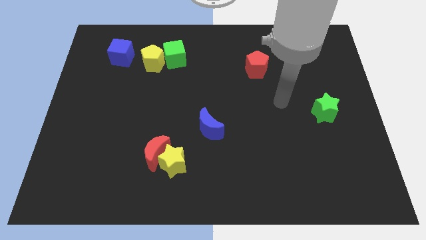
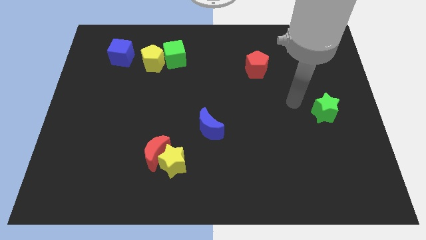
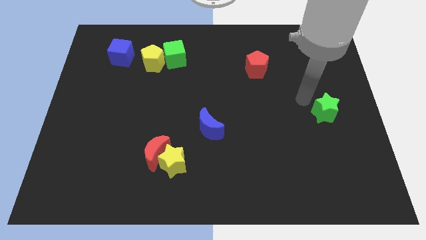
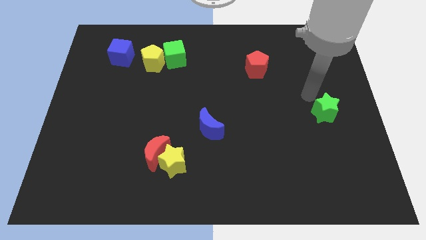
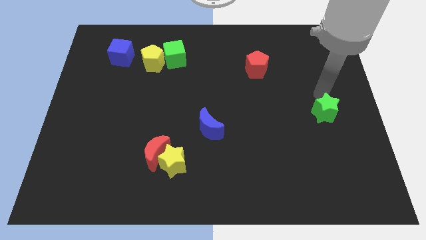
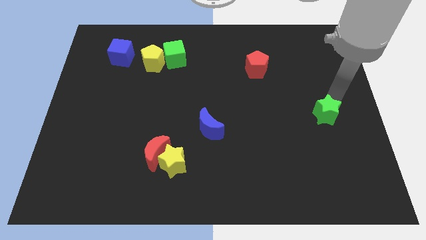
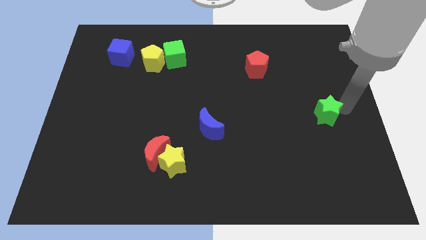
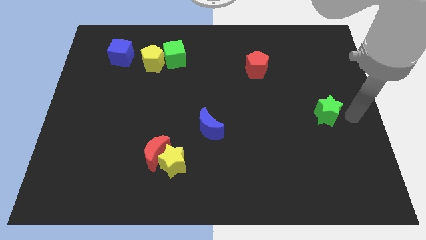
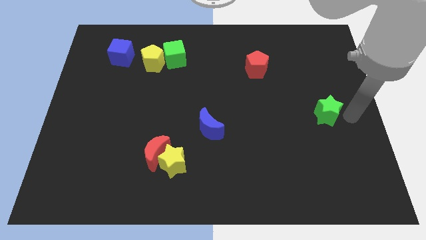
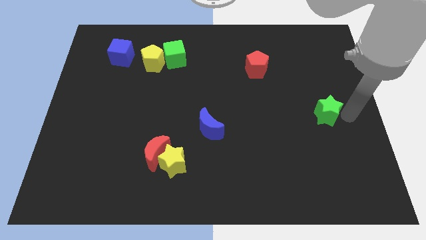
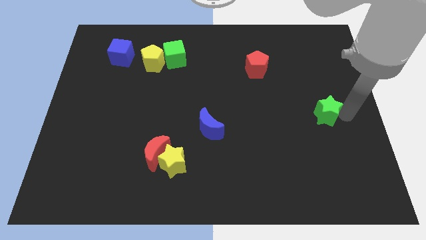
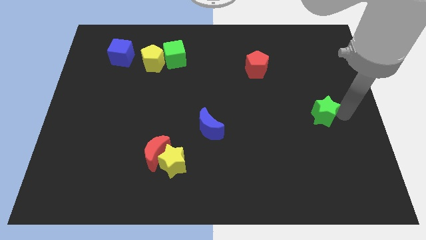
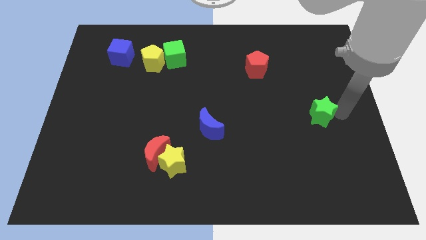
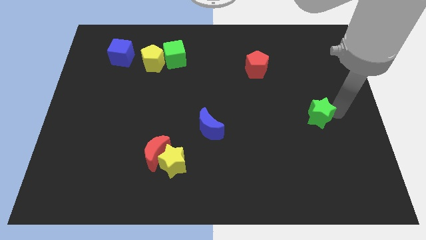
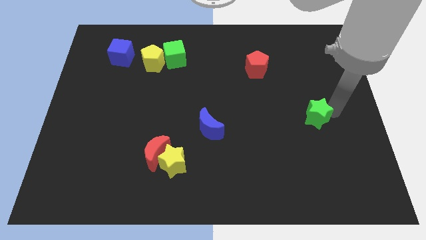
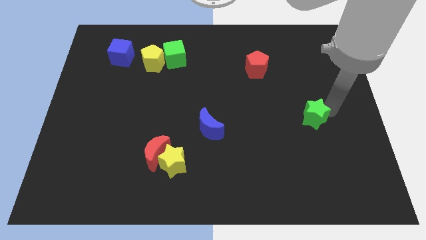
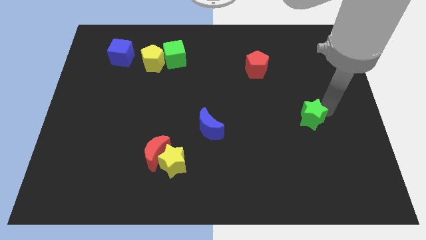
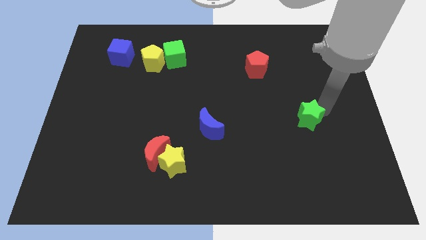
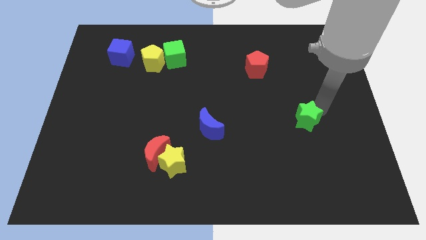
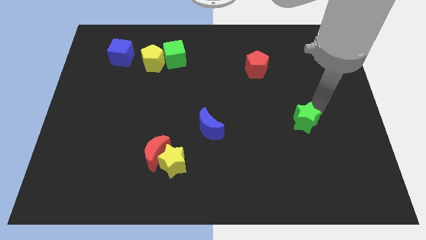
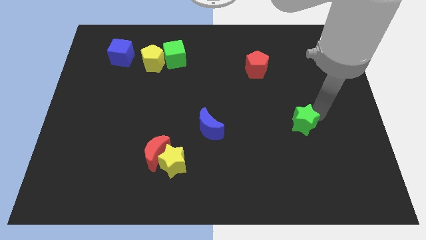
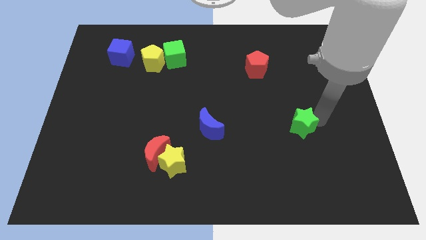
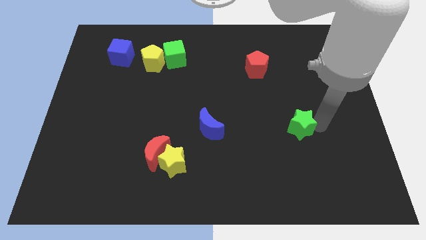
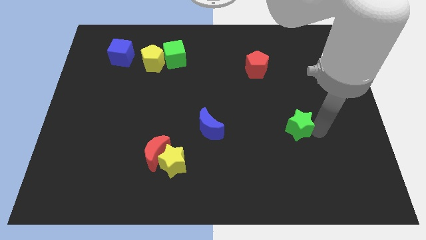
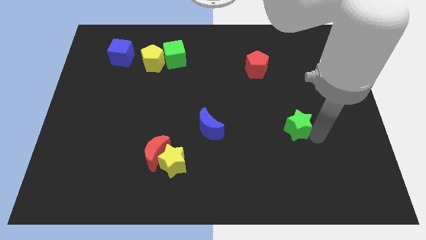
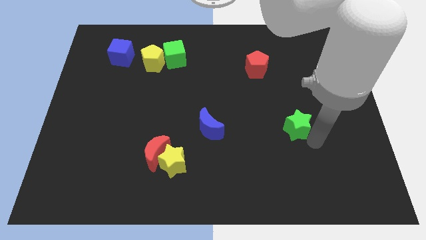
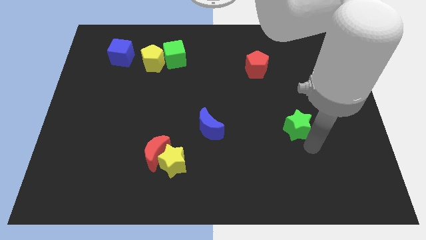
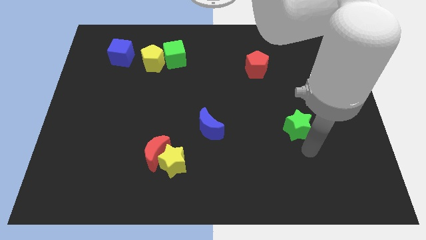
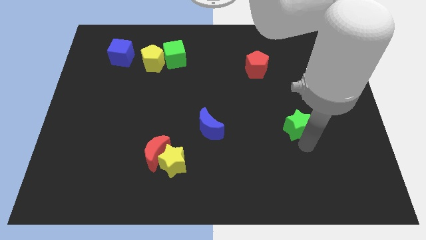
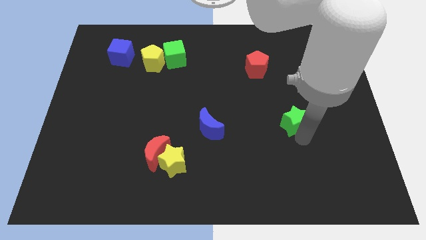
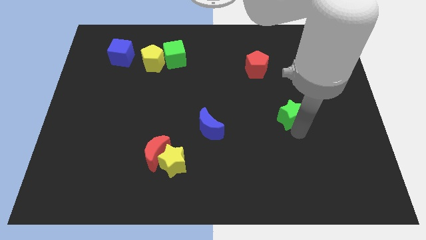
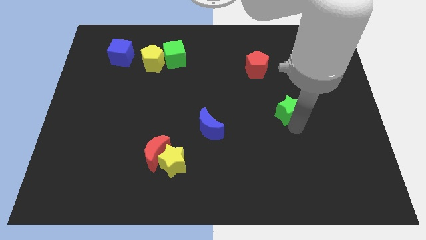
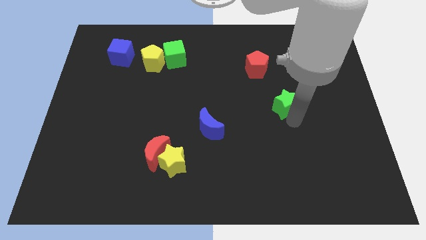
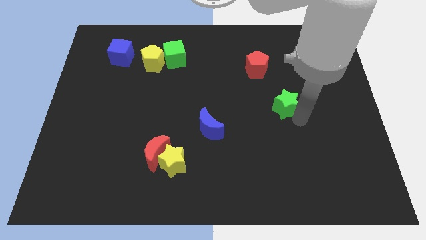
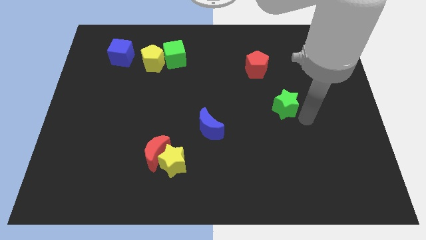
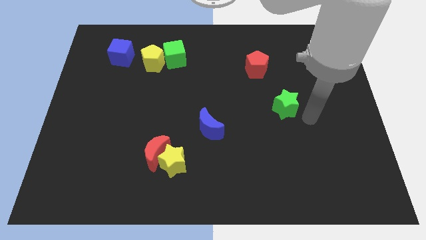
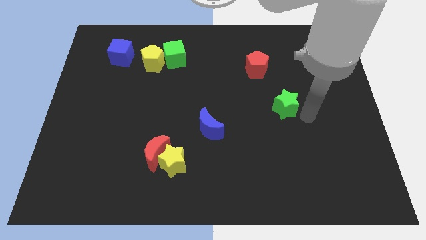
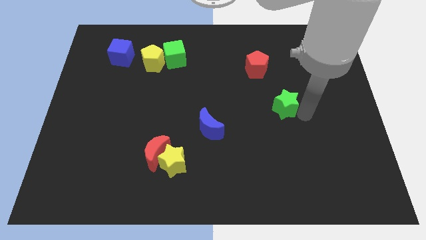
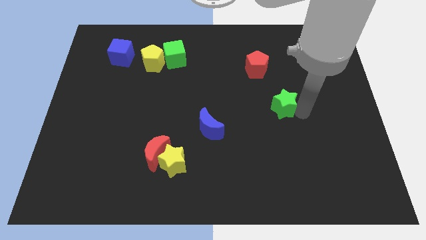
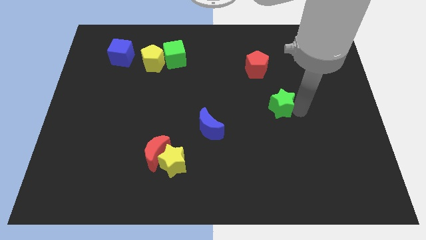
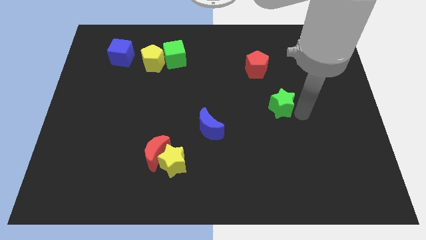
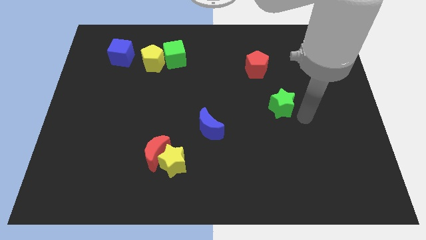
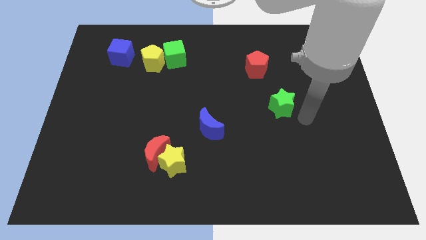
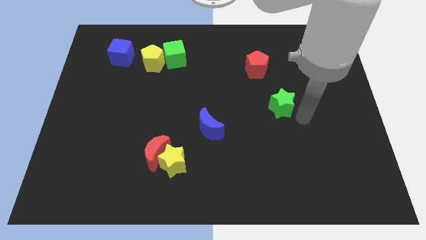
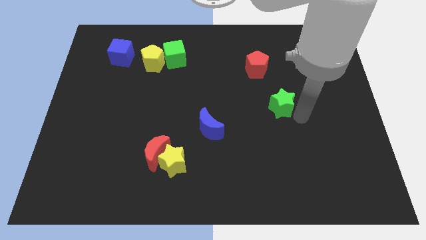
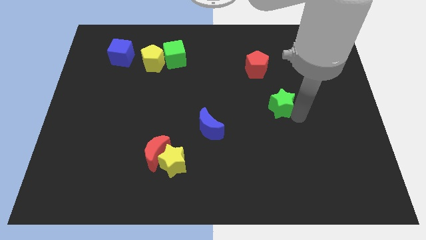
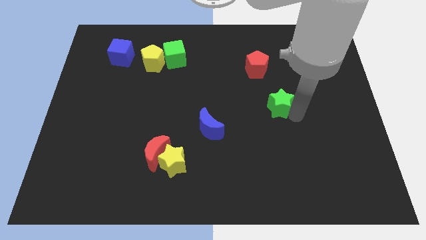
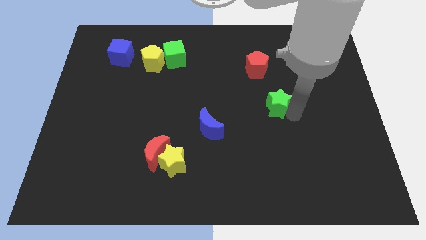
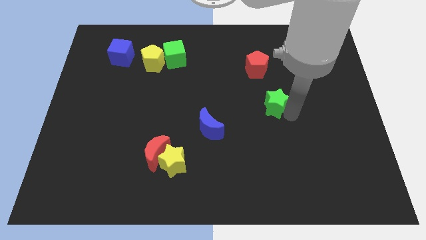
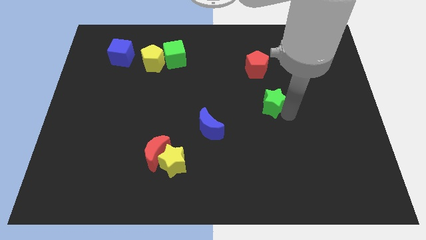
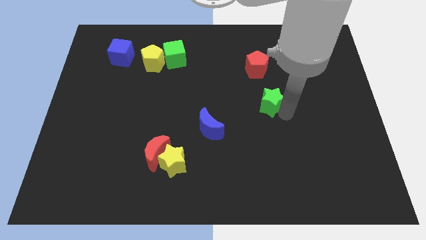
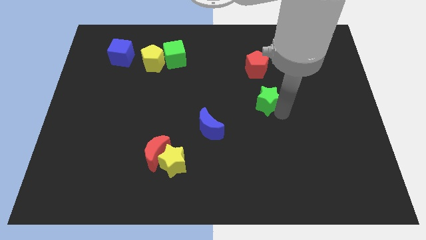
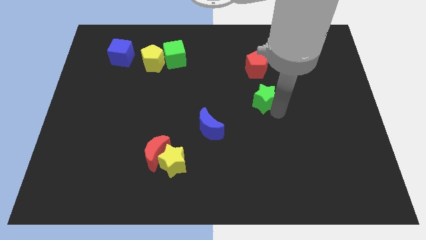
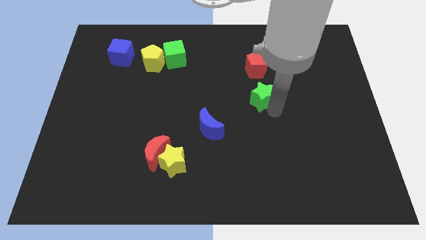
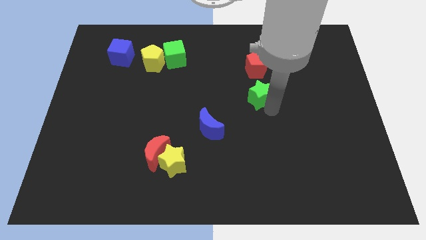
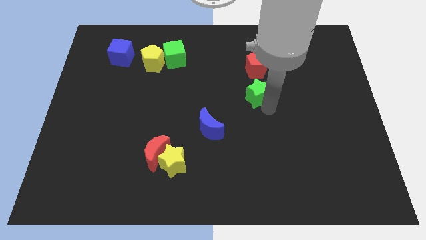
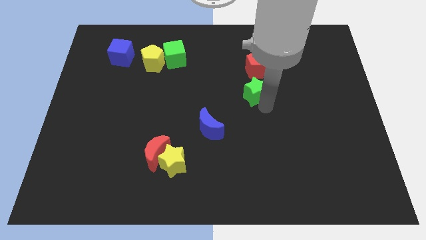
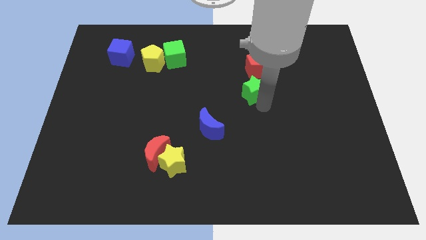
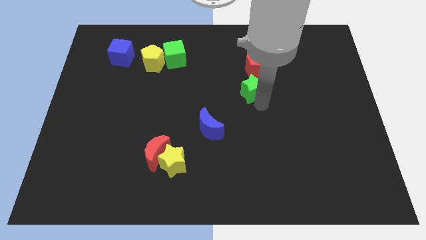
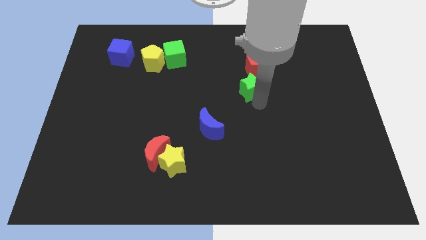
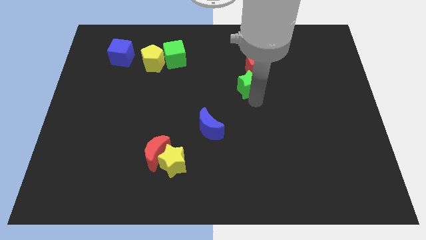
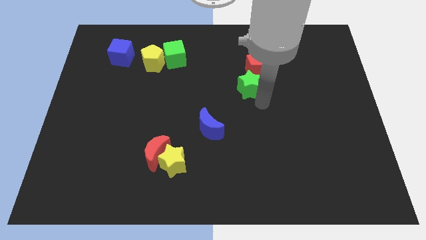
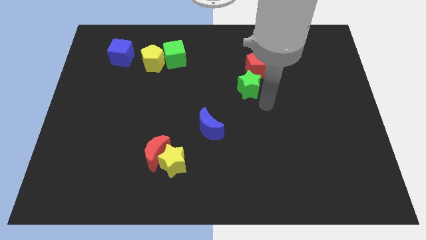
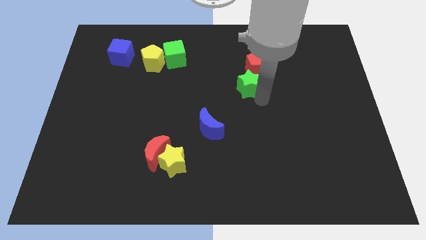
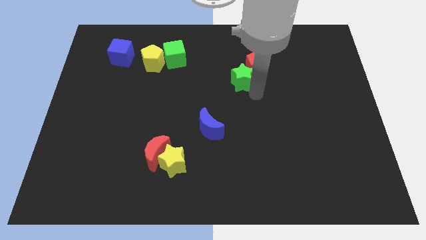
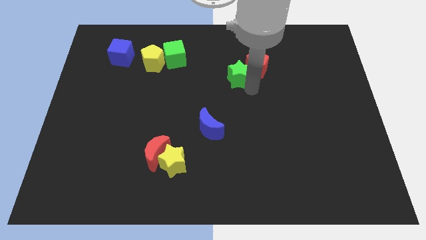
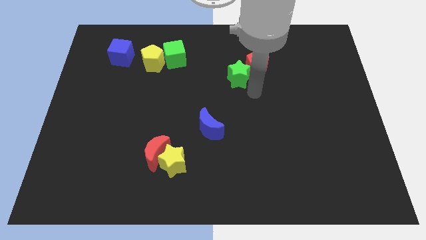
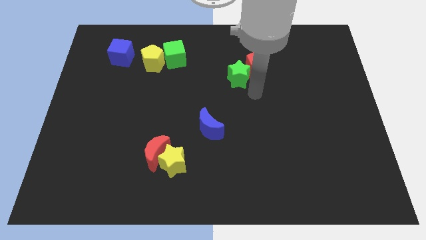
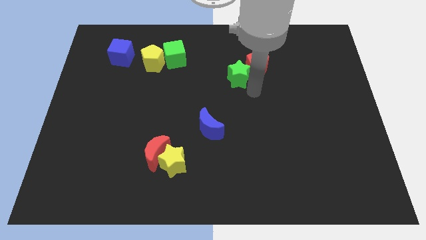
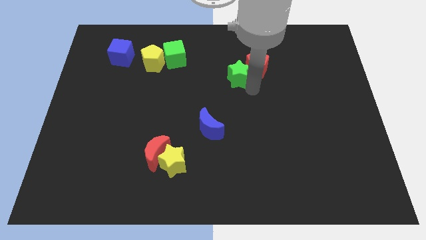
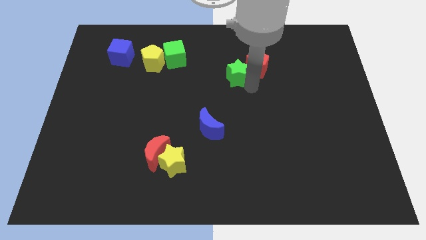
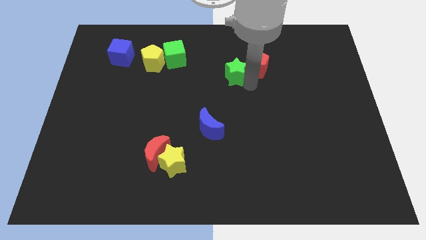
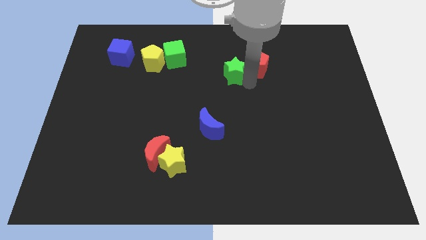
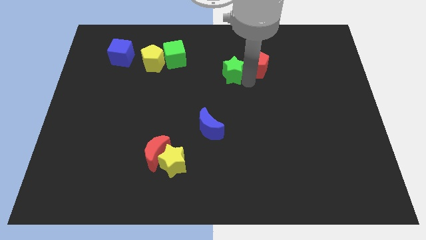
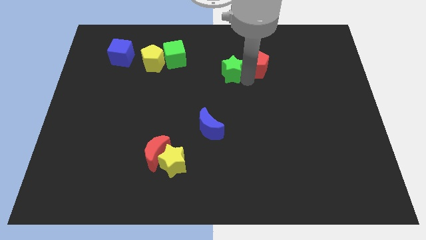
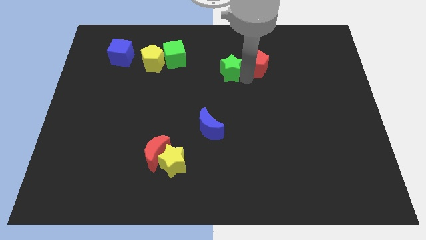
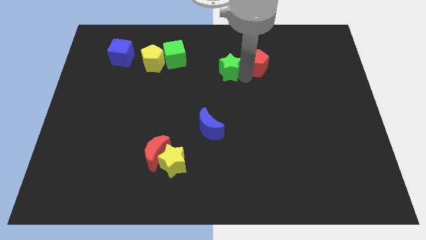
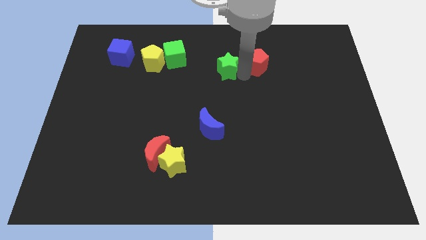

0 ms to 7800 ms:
push the green star to the right of the green cube
